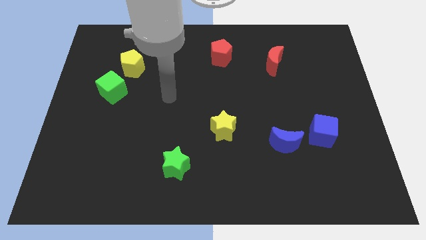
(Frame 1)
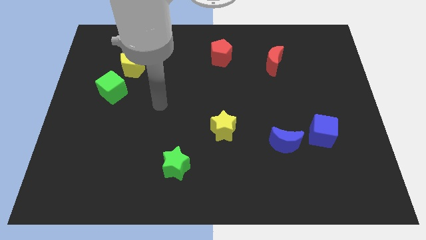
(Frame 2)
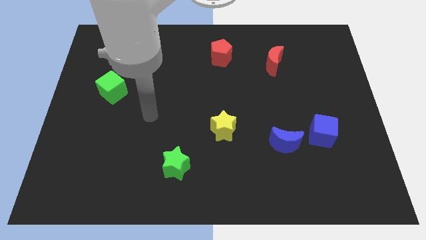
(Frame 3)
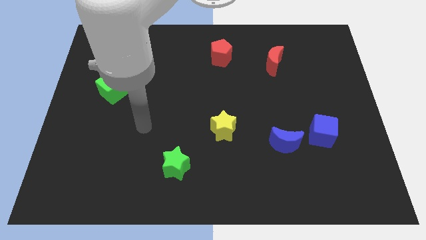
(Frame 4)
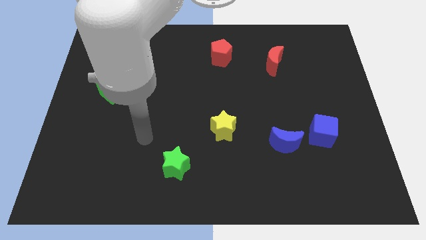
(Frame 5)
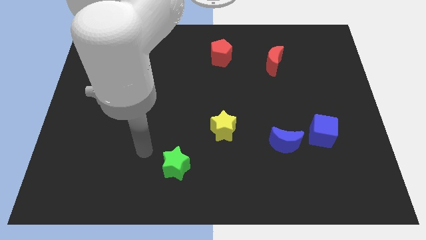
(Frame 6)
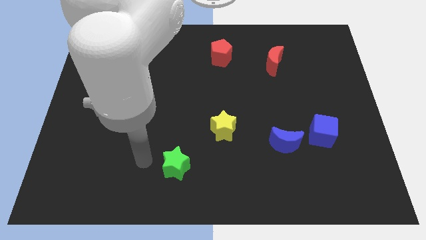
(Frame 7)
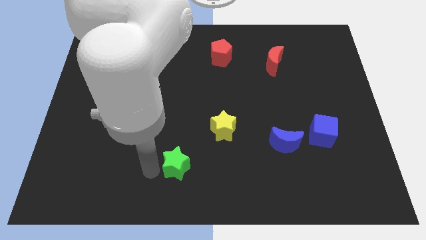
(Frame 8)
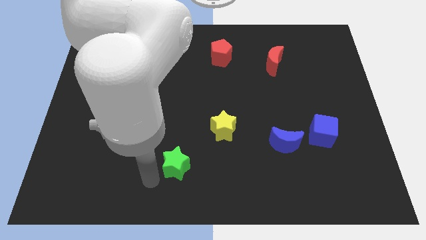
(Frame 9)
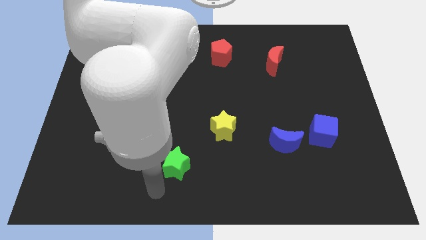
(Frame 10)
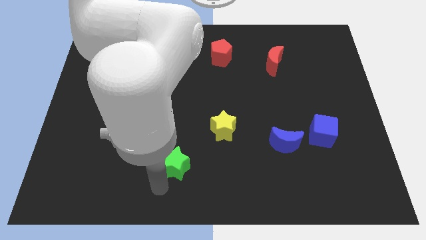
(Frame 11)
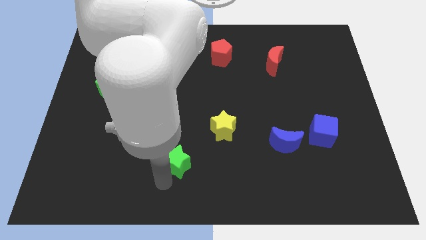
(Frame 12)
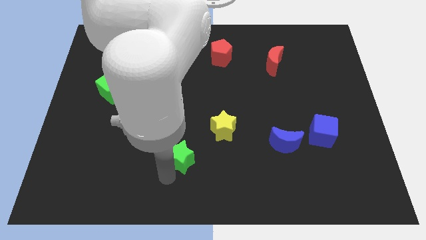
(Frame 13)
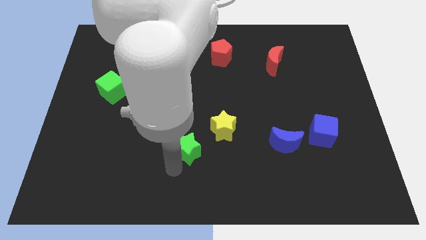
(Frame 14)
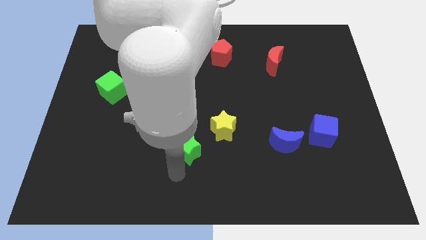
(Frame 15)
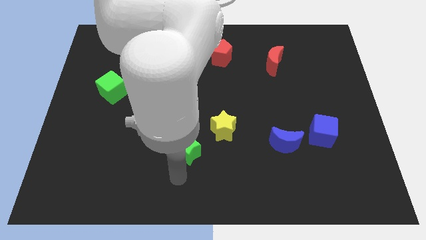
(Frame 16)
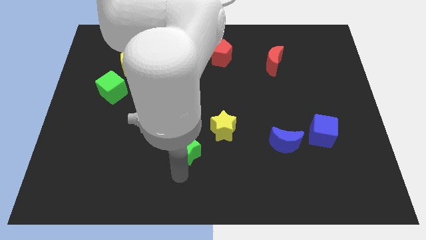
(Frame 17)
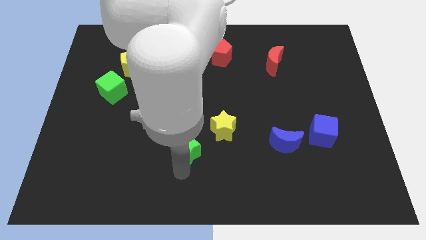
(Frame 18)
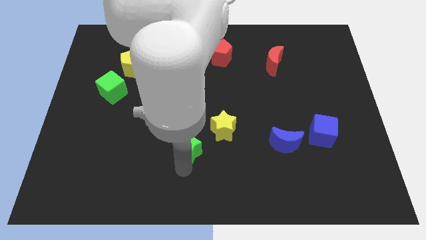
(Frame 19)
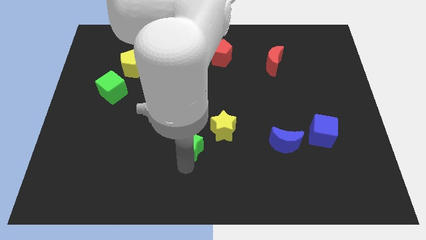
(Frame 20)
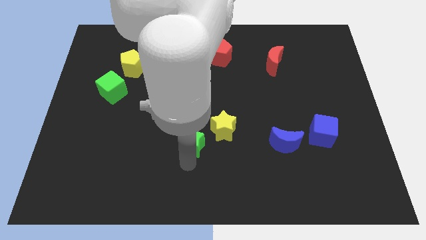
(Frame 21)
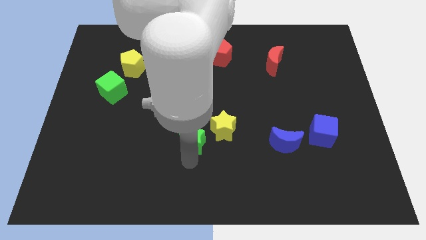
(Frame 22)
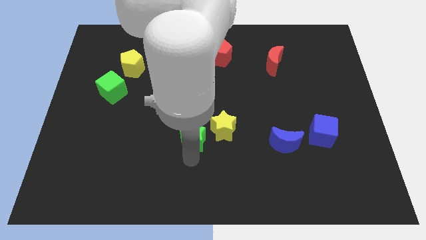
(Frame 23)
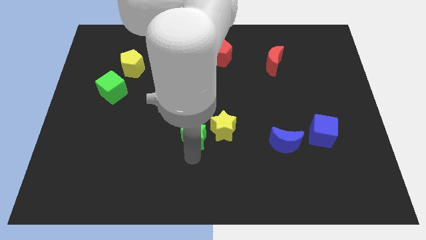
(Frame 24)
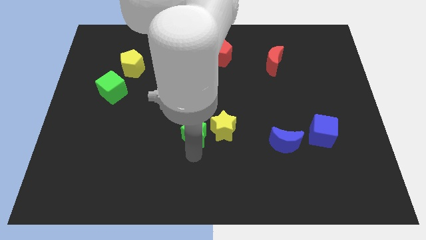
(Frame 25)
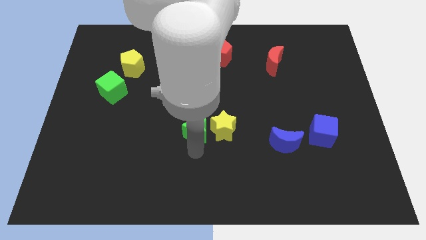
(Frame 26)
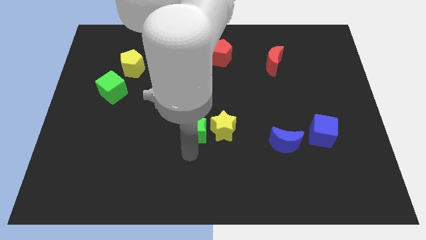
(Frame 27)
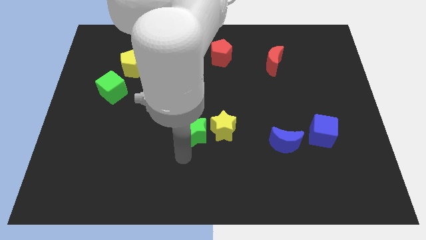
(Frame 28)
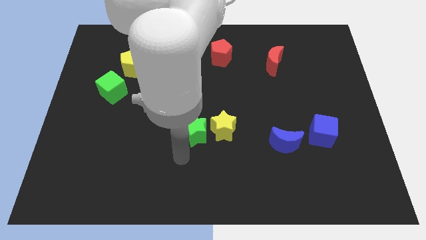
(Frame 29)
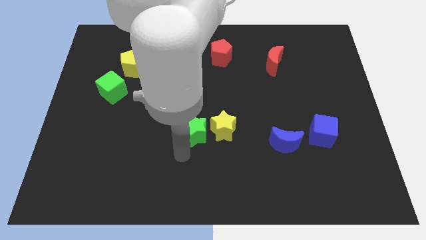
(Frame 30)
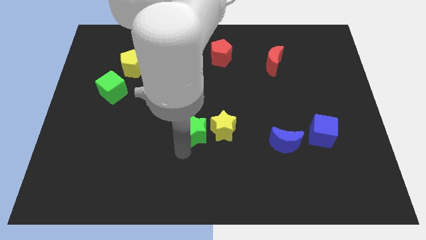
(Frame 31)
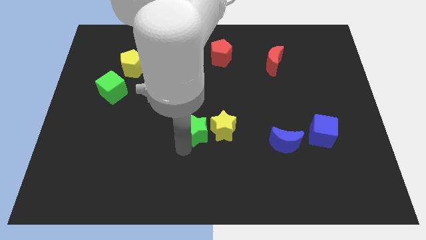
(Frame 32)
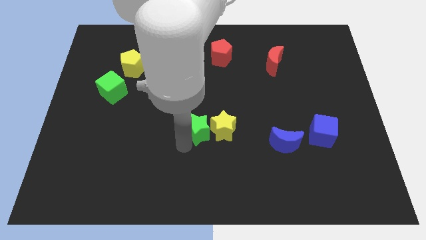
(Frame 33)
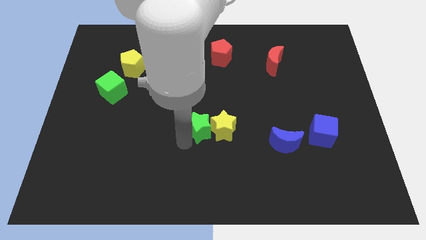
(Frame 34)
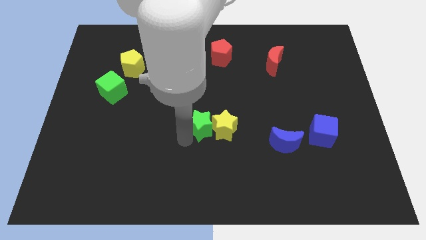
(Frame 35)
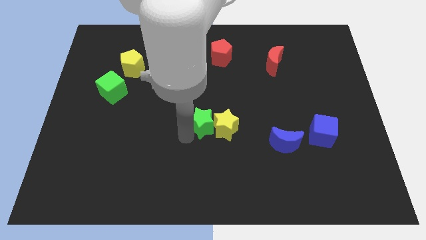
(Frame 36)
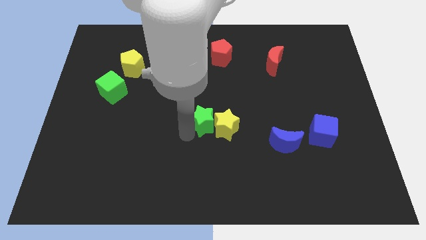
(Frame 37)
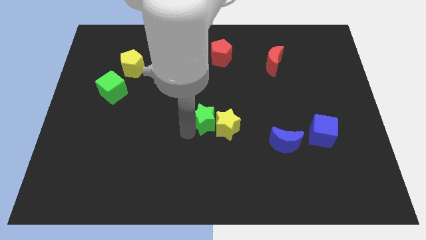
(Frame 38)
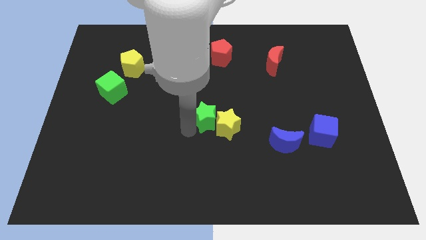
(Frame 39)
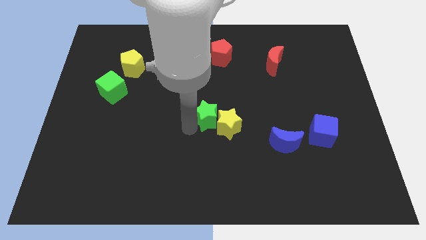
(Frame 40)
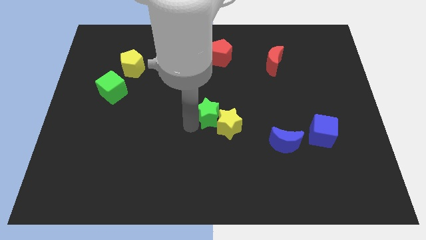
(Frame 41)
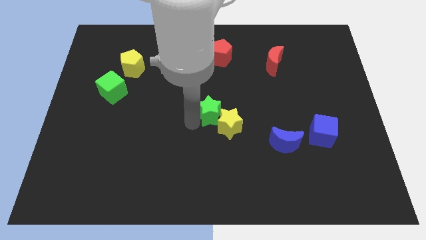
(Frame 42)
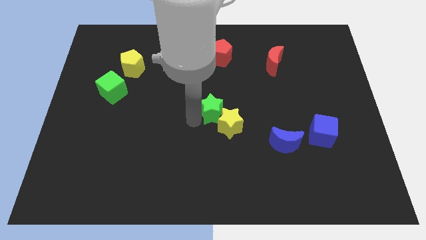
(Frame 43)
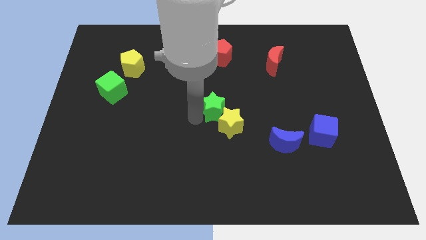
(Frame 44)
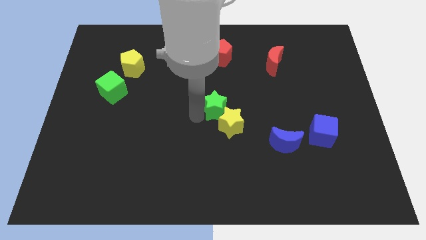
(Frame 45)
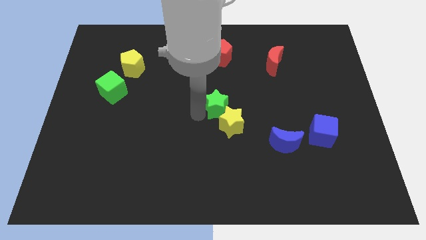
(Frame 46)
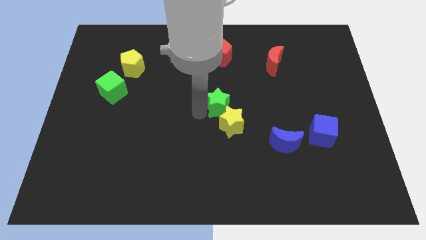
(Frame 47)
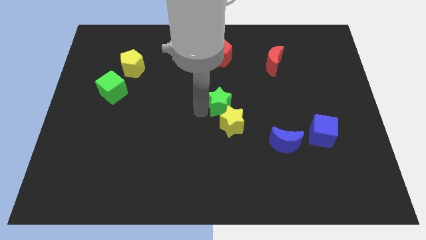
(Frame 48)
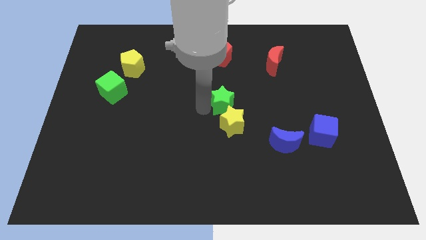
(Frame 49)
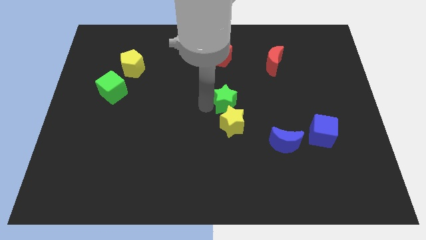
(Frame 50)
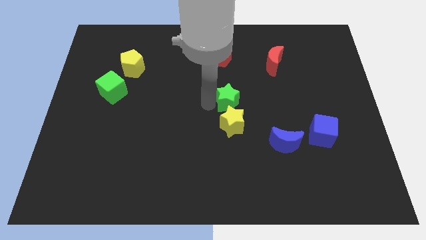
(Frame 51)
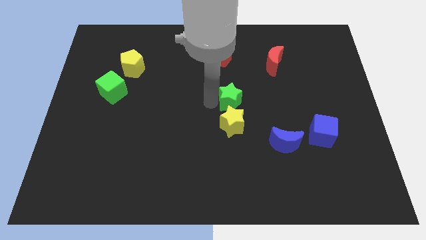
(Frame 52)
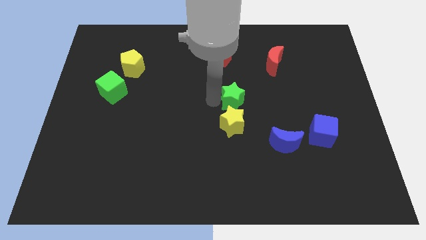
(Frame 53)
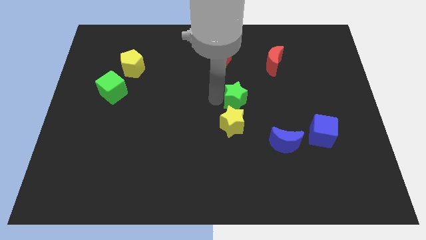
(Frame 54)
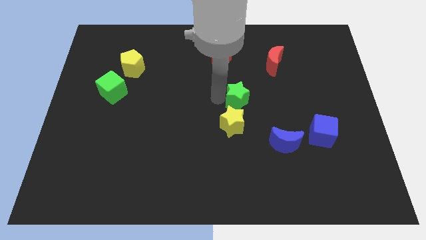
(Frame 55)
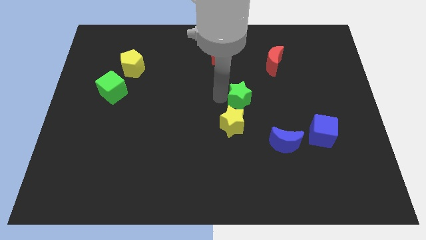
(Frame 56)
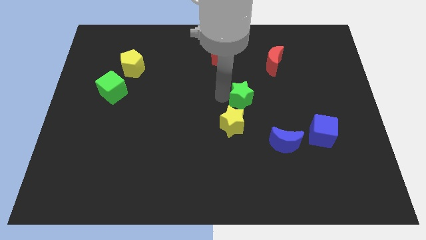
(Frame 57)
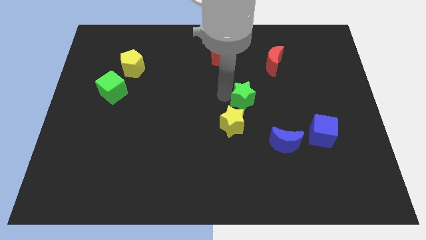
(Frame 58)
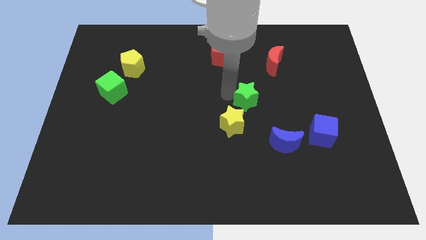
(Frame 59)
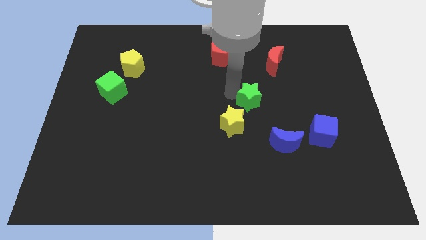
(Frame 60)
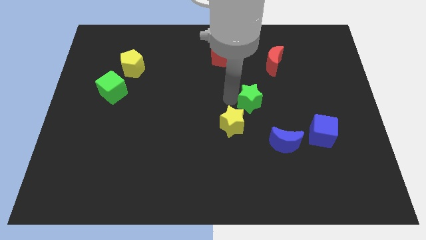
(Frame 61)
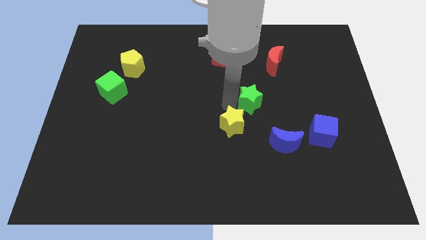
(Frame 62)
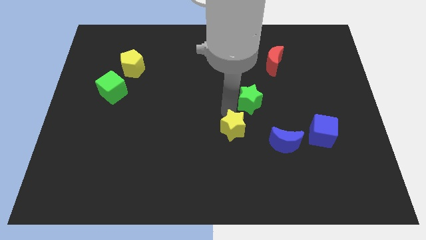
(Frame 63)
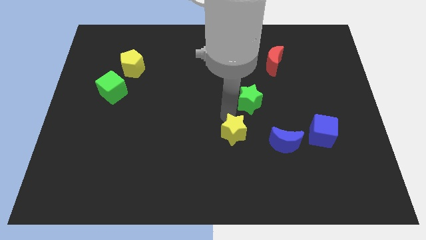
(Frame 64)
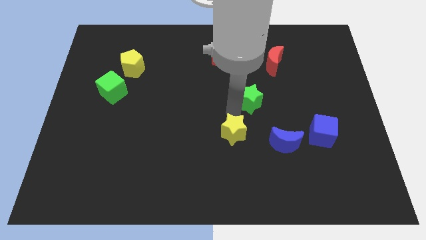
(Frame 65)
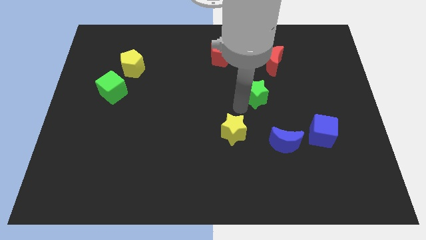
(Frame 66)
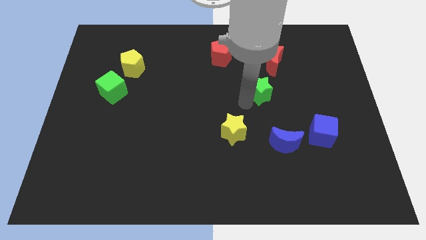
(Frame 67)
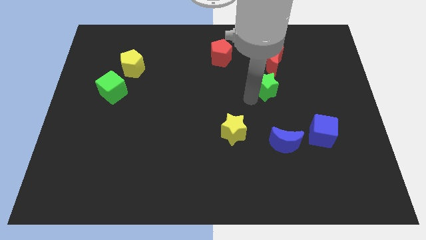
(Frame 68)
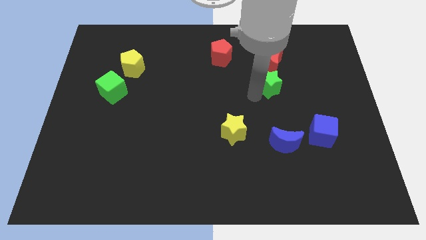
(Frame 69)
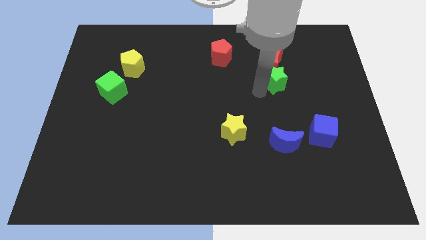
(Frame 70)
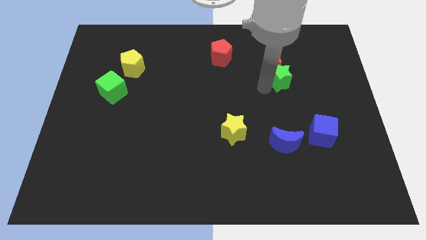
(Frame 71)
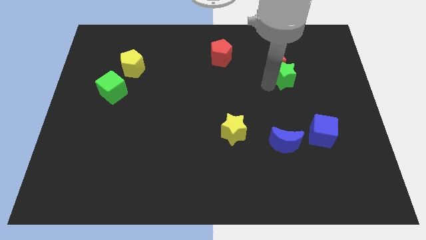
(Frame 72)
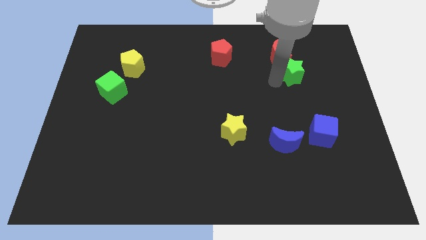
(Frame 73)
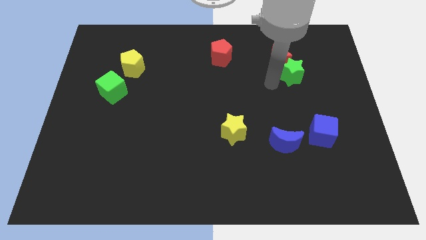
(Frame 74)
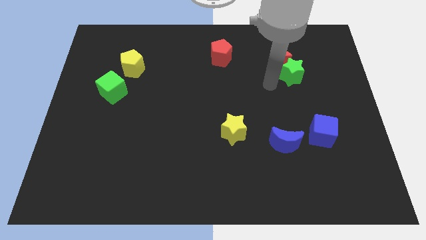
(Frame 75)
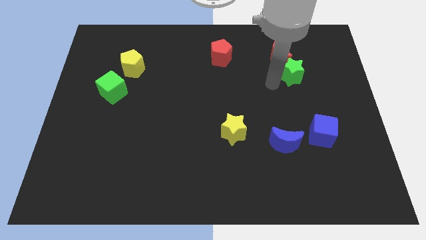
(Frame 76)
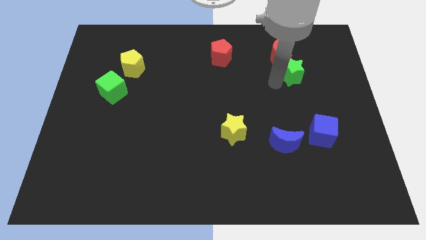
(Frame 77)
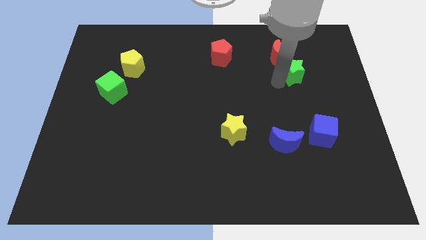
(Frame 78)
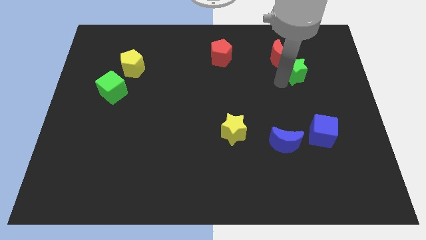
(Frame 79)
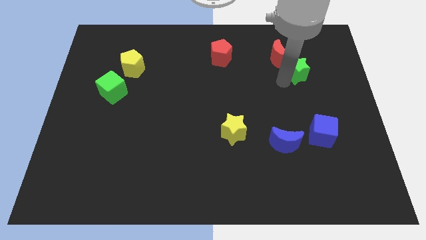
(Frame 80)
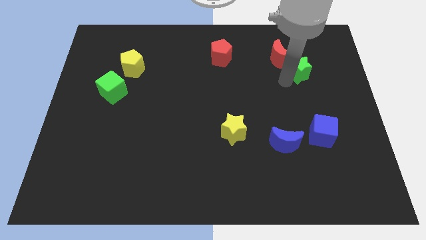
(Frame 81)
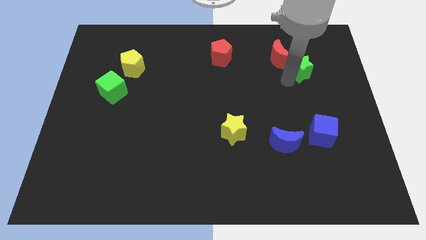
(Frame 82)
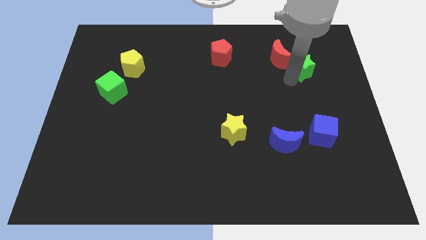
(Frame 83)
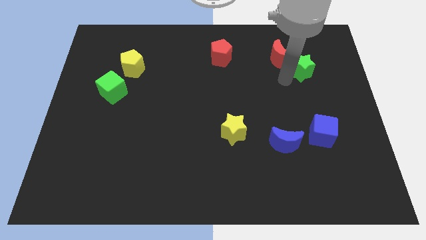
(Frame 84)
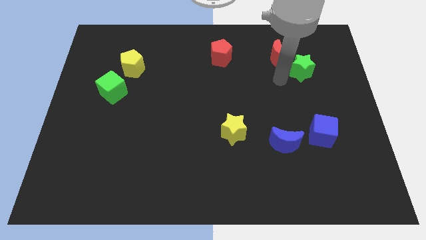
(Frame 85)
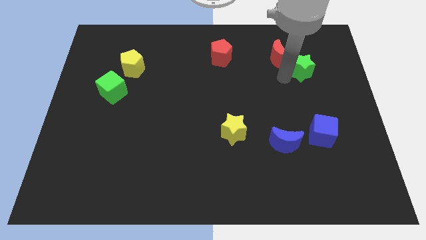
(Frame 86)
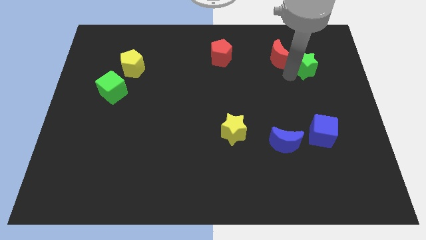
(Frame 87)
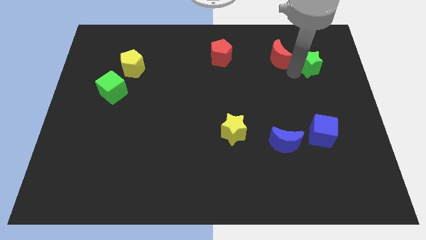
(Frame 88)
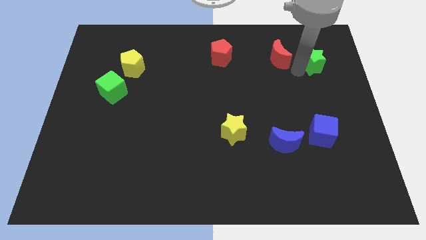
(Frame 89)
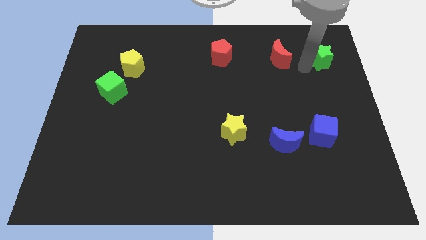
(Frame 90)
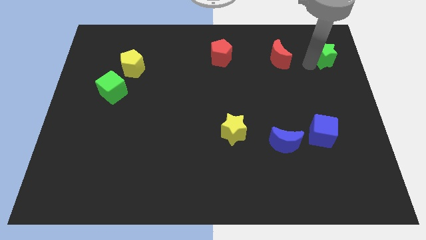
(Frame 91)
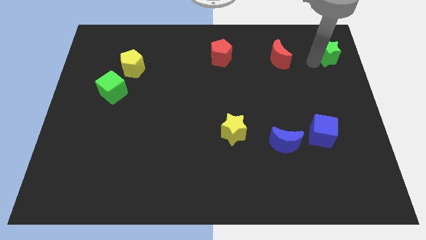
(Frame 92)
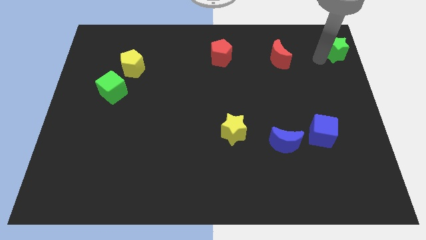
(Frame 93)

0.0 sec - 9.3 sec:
slide the green star to the top right
